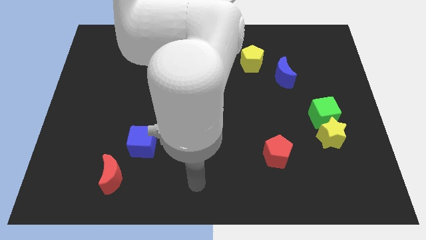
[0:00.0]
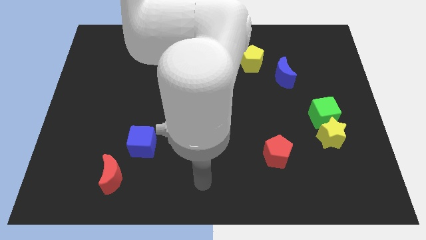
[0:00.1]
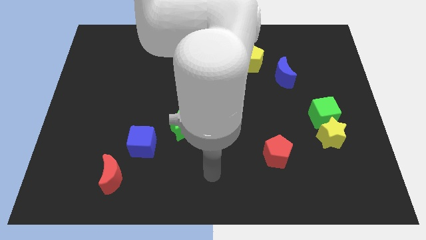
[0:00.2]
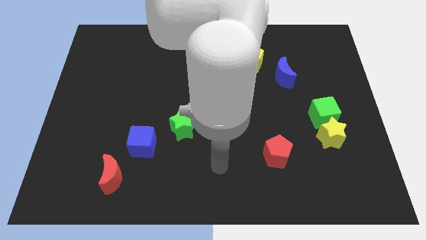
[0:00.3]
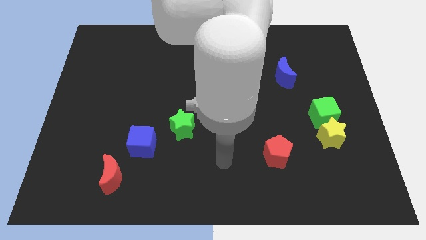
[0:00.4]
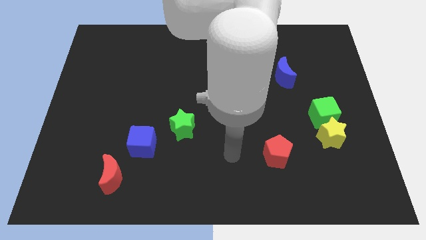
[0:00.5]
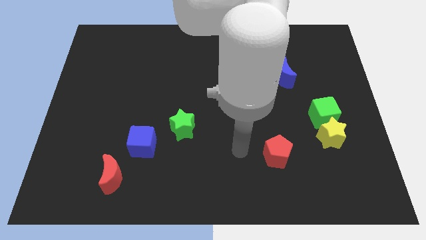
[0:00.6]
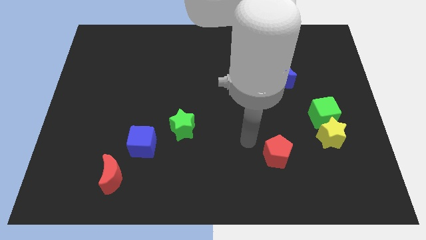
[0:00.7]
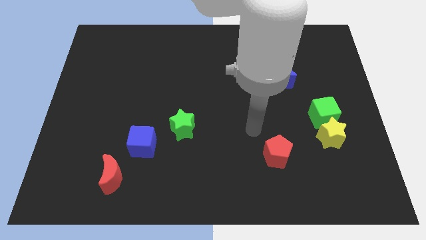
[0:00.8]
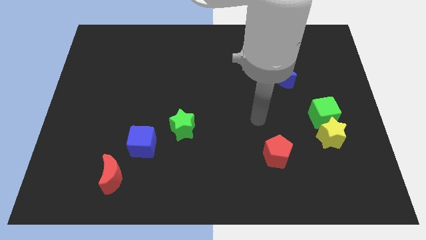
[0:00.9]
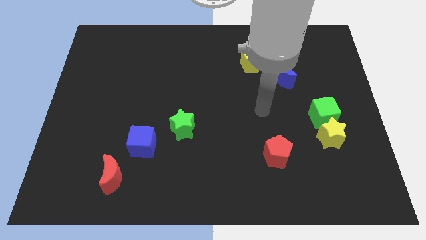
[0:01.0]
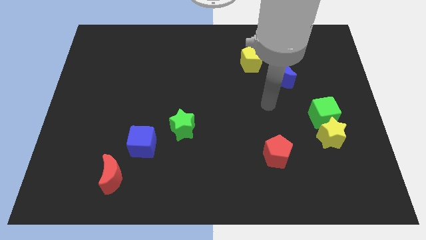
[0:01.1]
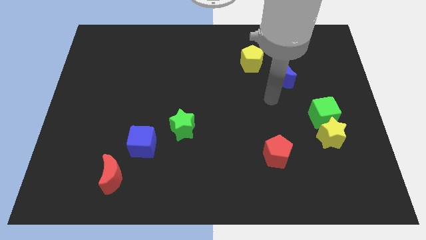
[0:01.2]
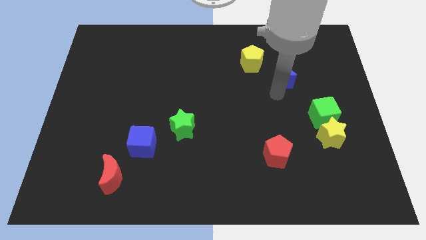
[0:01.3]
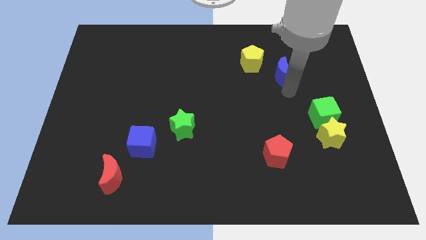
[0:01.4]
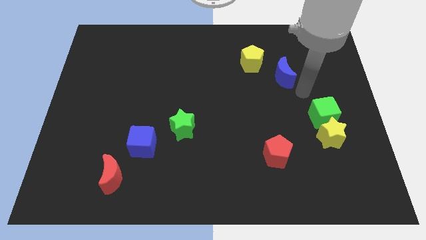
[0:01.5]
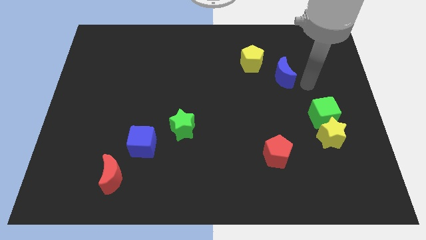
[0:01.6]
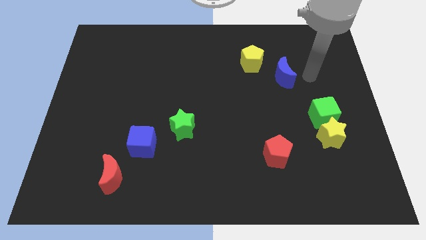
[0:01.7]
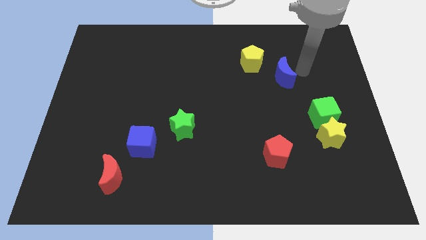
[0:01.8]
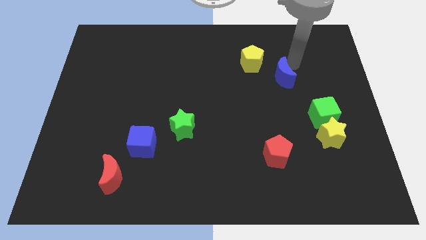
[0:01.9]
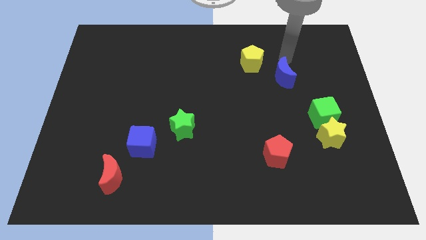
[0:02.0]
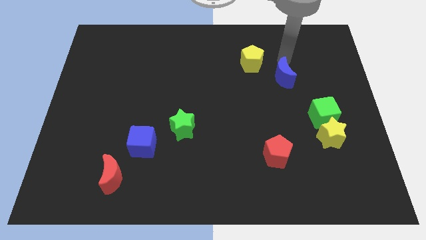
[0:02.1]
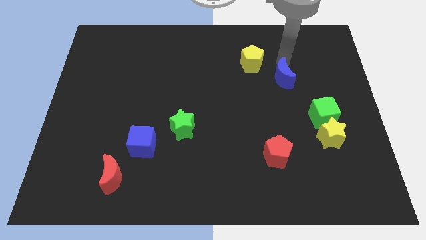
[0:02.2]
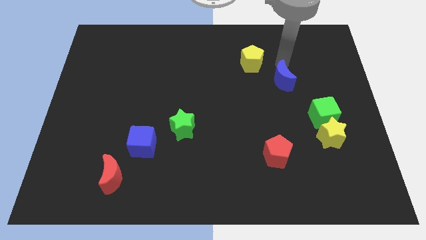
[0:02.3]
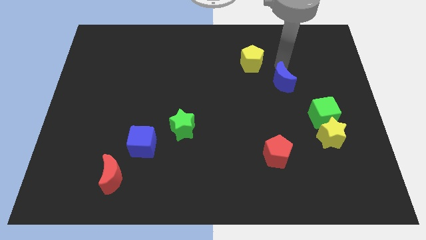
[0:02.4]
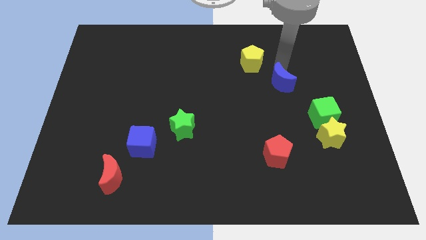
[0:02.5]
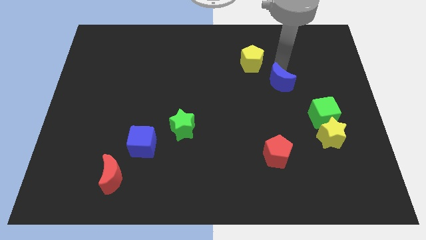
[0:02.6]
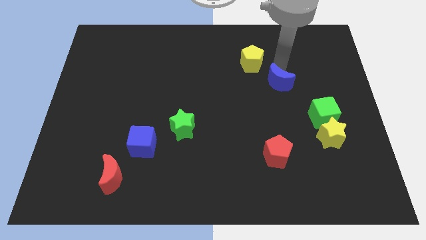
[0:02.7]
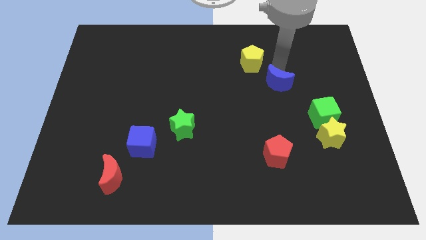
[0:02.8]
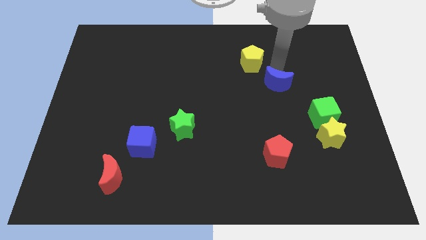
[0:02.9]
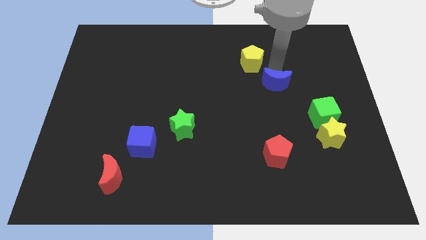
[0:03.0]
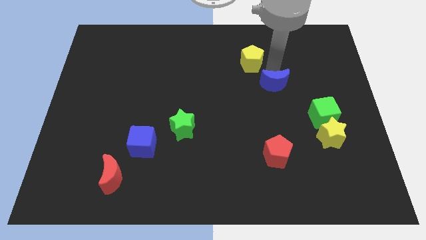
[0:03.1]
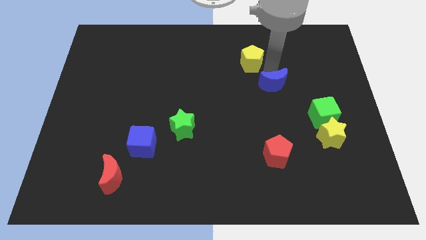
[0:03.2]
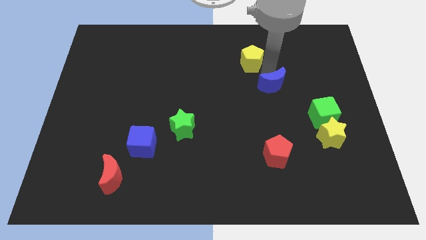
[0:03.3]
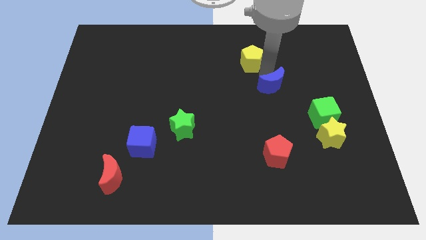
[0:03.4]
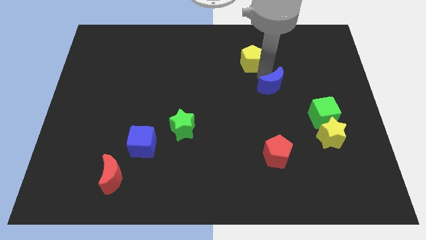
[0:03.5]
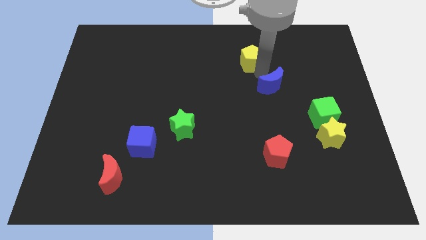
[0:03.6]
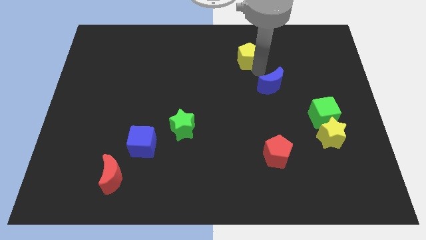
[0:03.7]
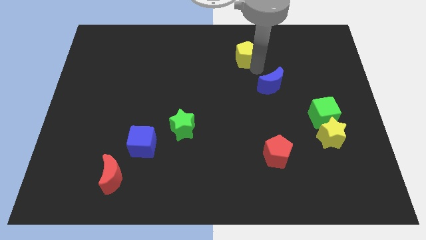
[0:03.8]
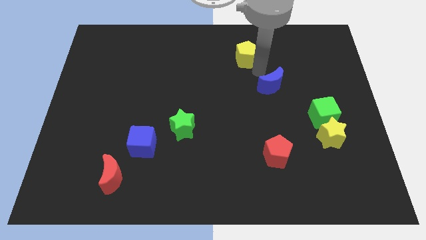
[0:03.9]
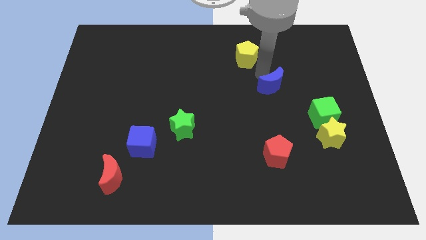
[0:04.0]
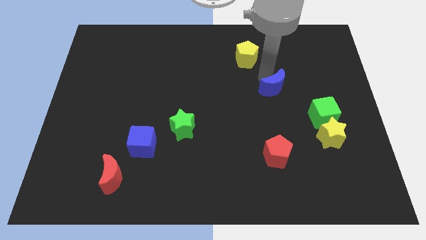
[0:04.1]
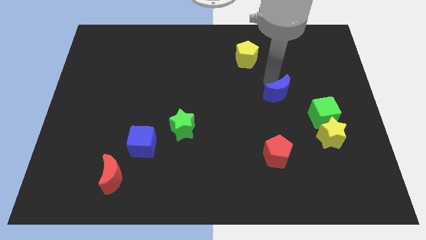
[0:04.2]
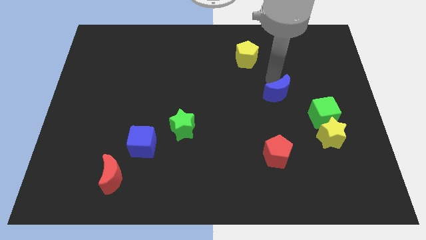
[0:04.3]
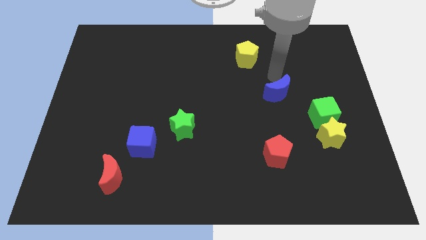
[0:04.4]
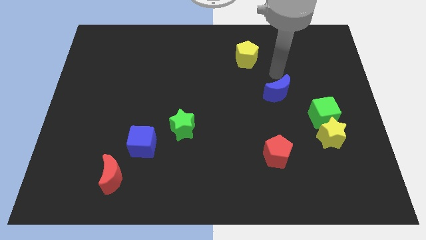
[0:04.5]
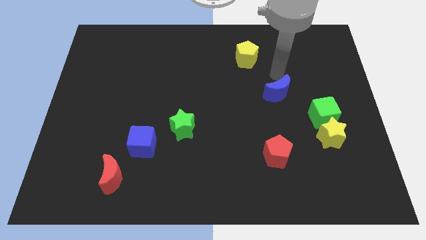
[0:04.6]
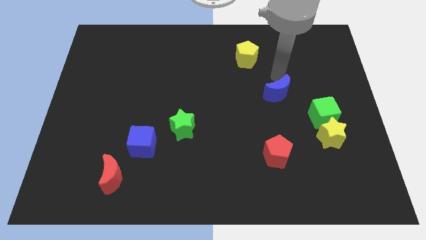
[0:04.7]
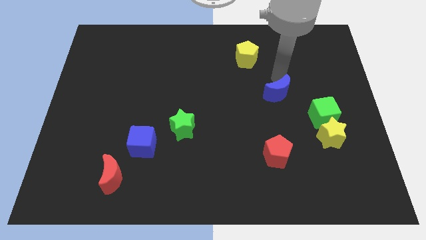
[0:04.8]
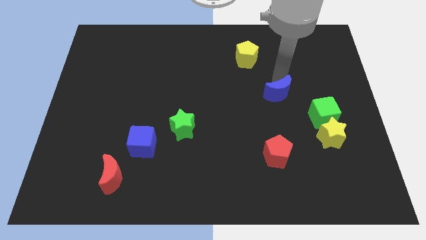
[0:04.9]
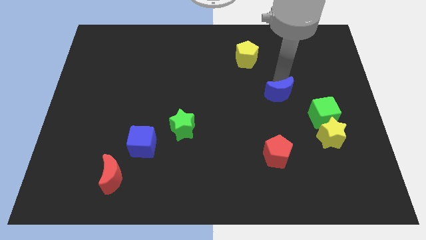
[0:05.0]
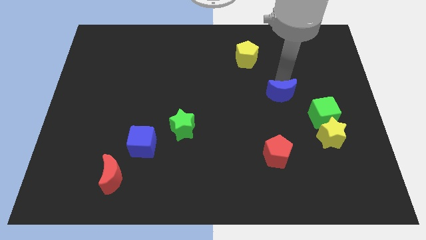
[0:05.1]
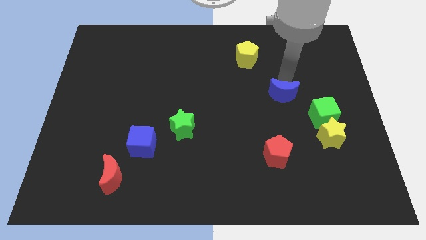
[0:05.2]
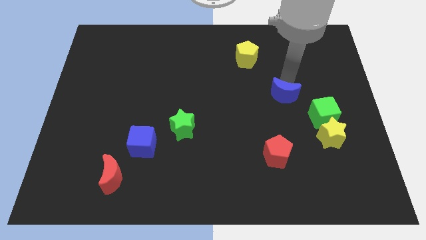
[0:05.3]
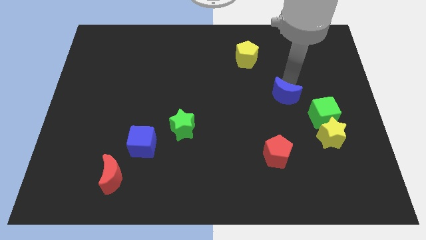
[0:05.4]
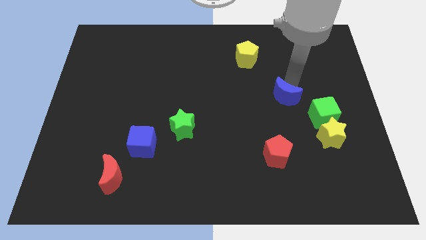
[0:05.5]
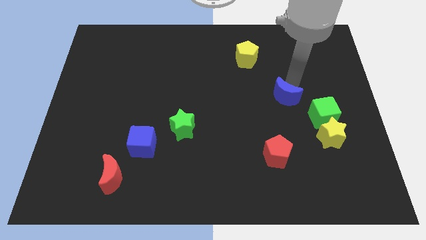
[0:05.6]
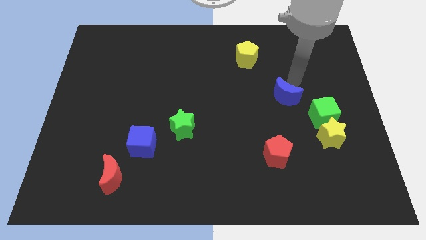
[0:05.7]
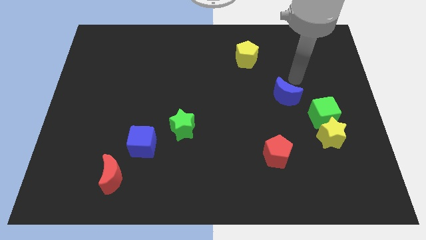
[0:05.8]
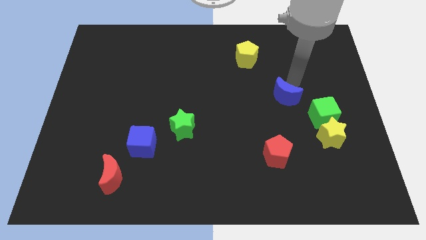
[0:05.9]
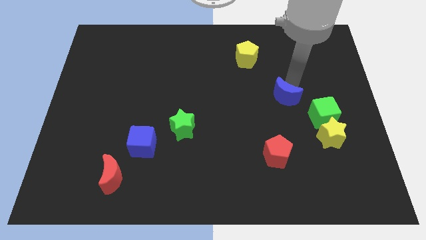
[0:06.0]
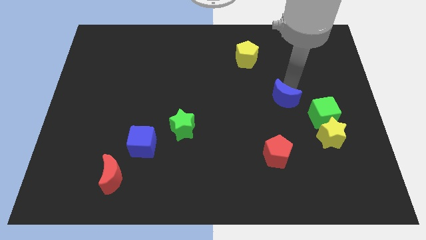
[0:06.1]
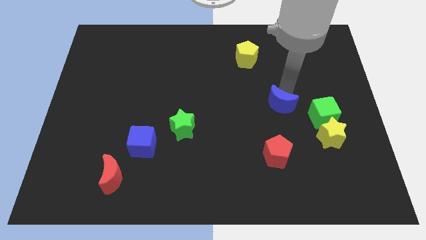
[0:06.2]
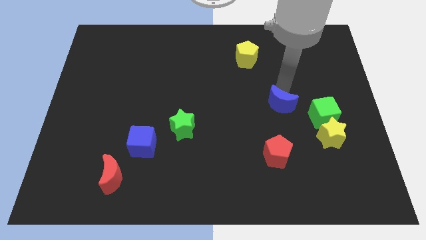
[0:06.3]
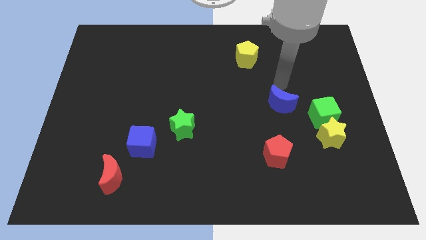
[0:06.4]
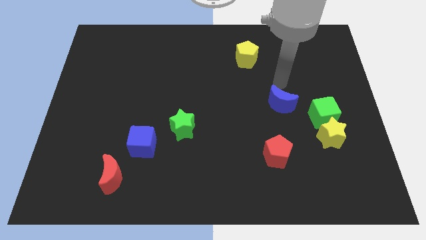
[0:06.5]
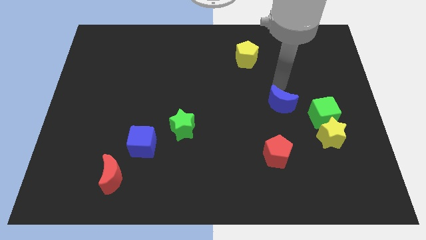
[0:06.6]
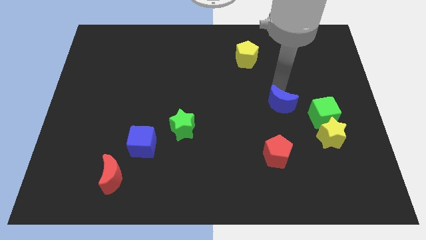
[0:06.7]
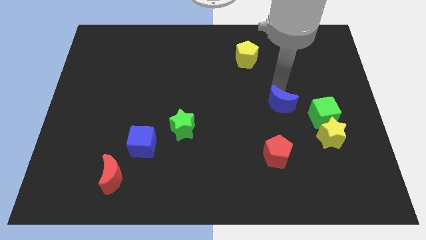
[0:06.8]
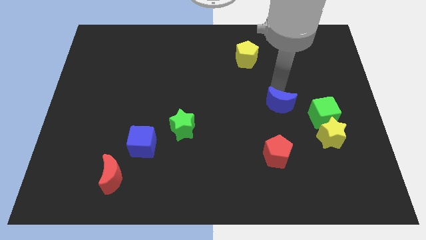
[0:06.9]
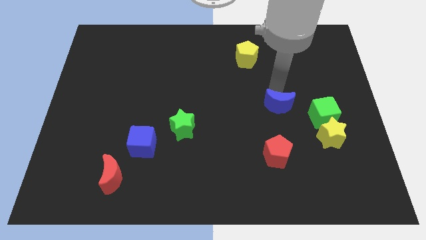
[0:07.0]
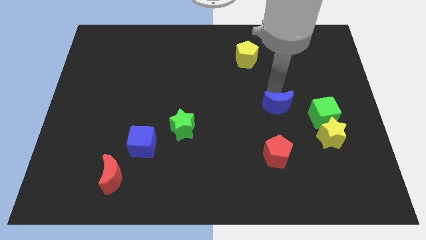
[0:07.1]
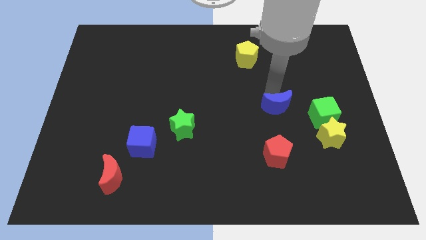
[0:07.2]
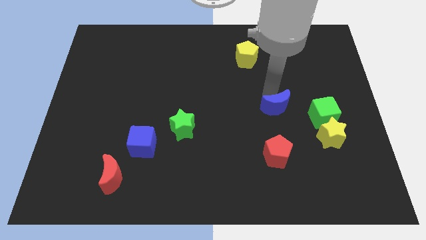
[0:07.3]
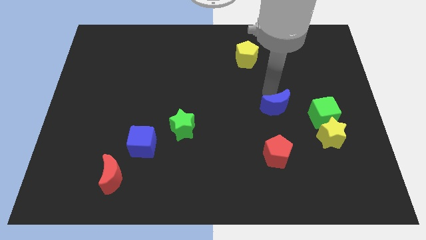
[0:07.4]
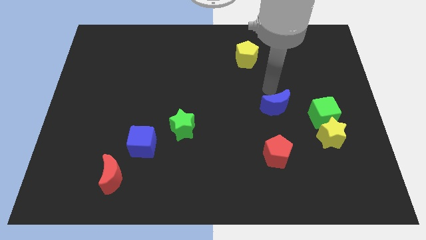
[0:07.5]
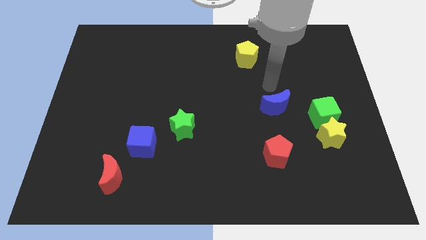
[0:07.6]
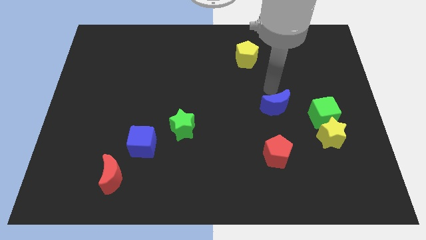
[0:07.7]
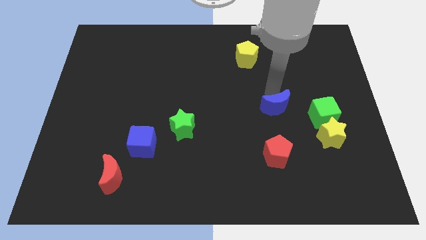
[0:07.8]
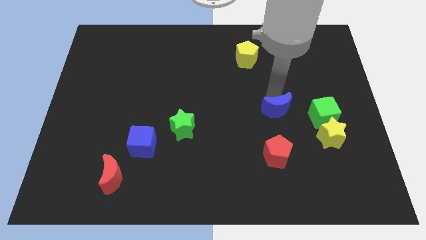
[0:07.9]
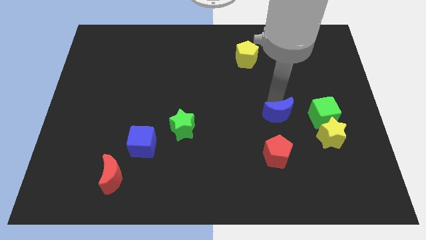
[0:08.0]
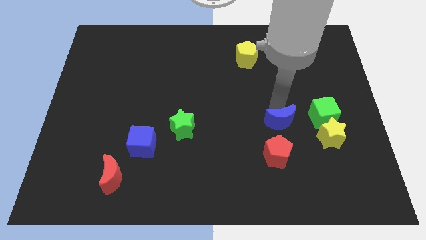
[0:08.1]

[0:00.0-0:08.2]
slide the blue moon to the left of the yellow star
